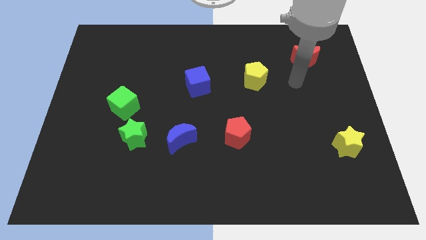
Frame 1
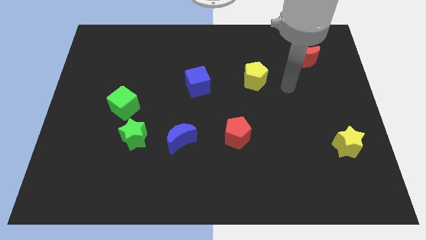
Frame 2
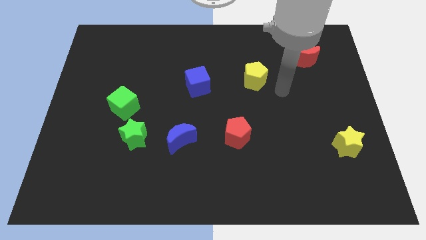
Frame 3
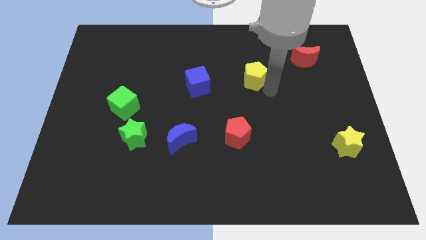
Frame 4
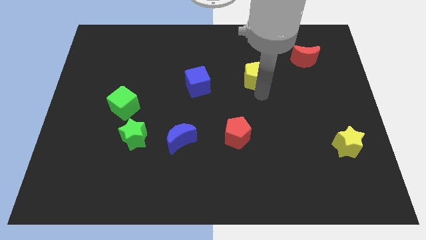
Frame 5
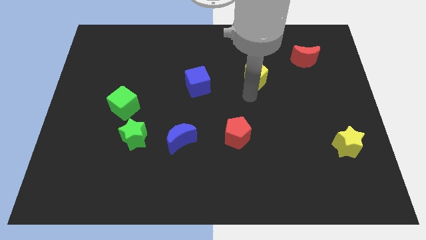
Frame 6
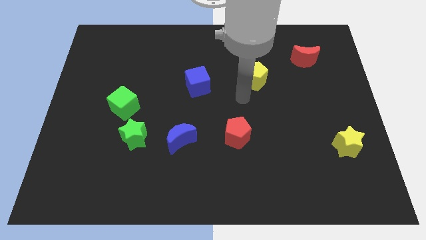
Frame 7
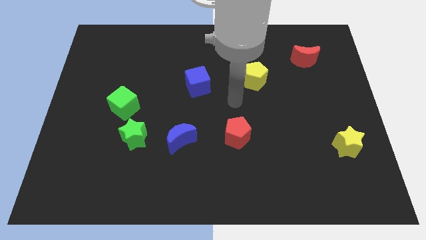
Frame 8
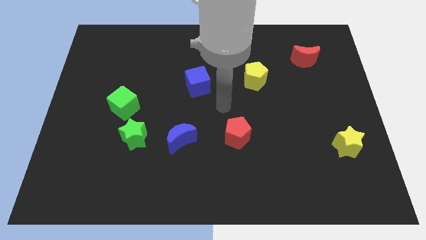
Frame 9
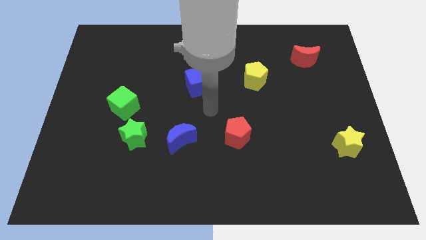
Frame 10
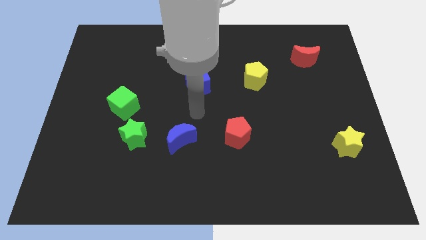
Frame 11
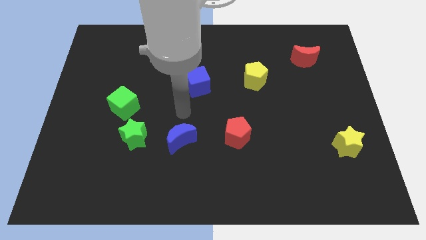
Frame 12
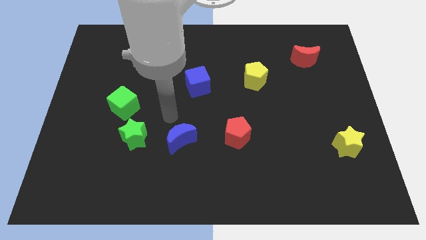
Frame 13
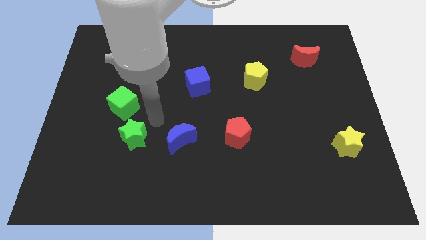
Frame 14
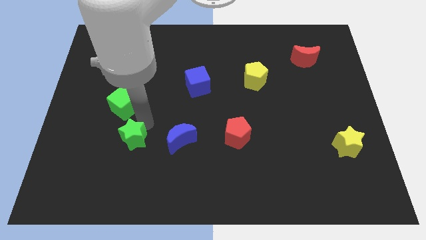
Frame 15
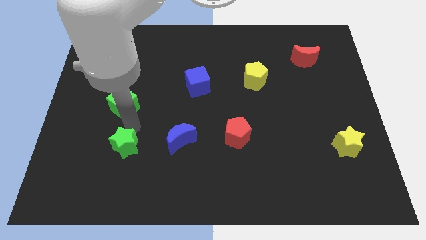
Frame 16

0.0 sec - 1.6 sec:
pull the green cube apart from the green star

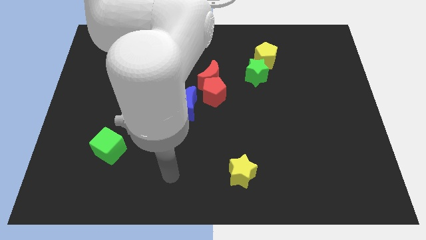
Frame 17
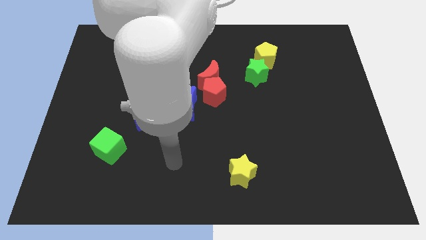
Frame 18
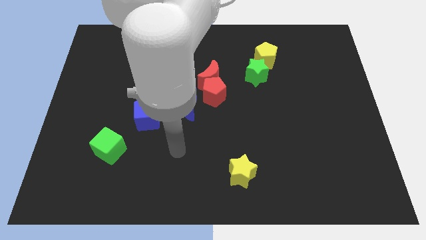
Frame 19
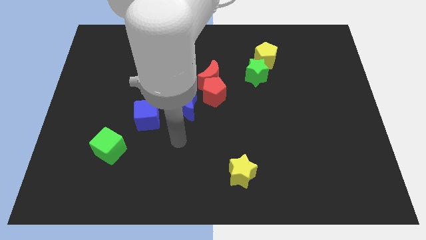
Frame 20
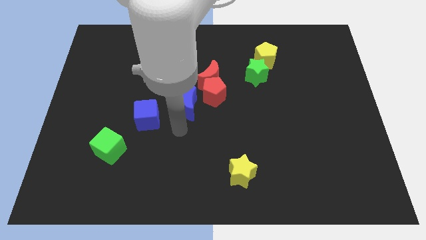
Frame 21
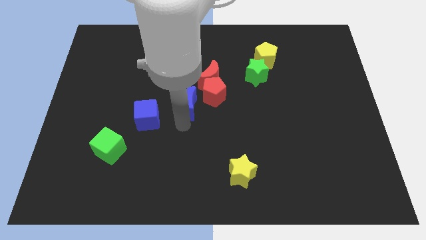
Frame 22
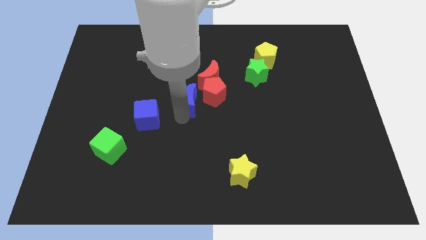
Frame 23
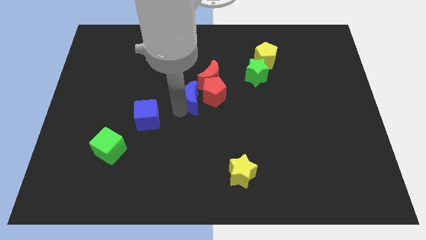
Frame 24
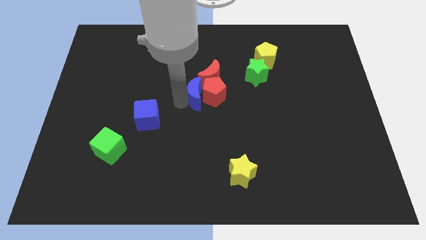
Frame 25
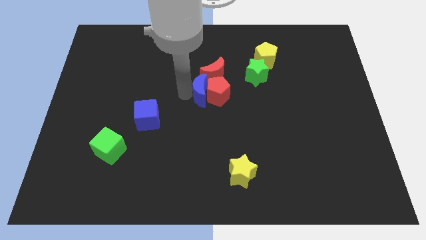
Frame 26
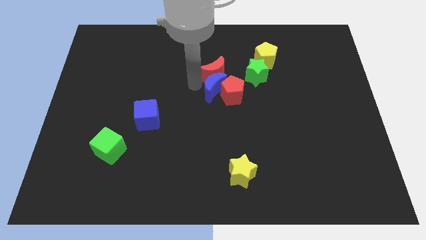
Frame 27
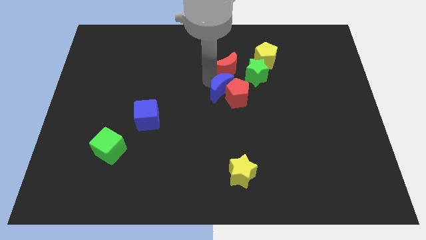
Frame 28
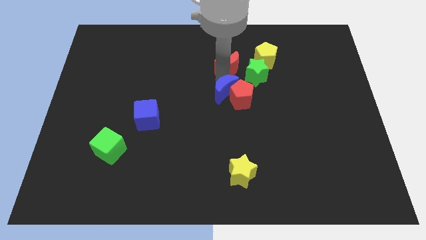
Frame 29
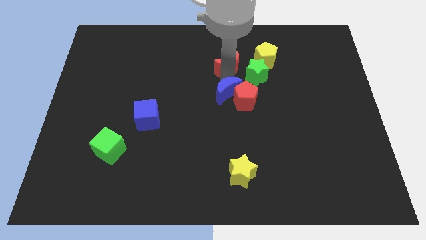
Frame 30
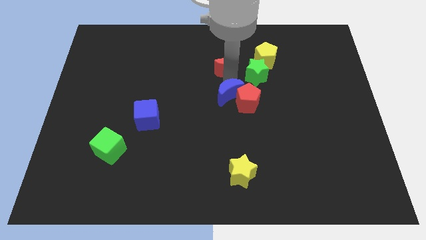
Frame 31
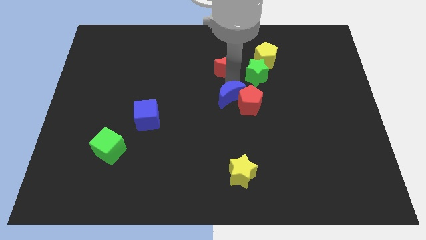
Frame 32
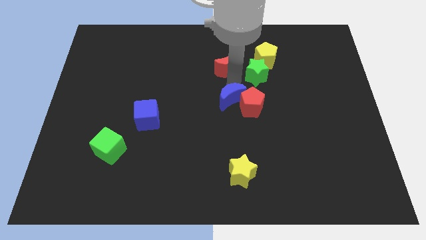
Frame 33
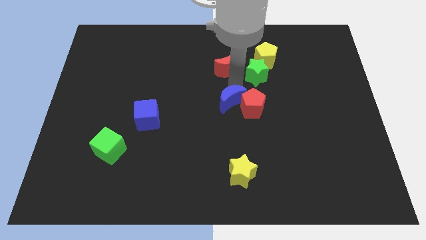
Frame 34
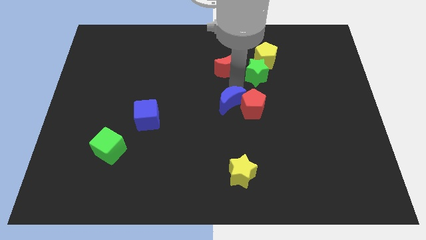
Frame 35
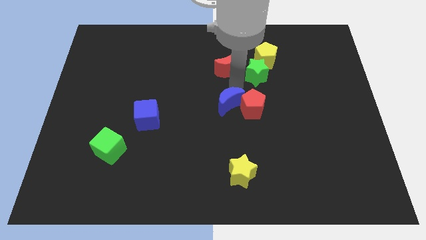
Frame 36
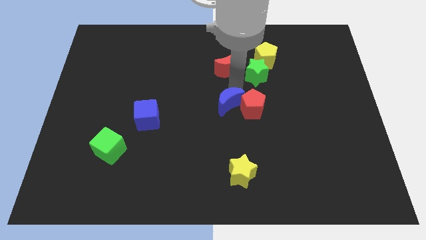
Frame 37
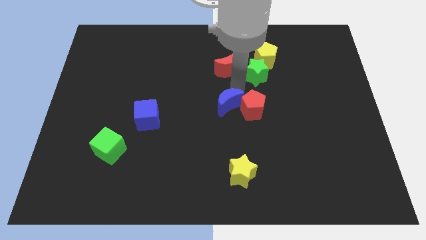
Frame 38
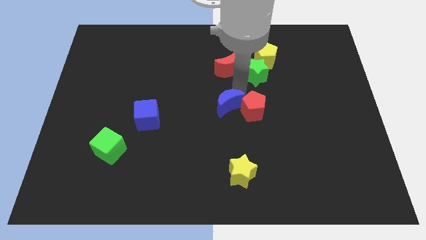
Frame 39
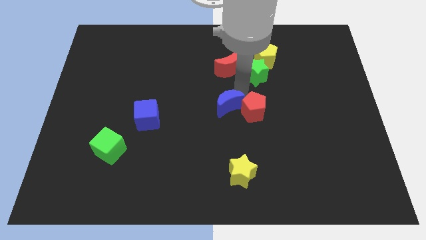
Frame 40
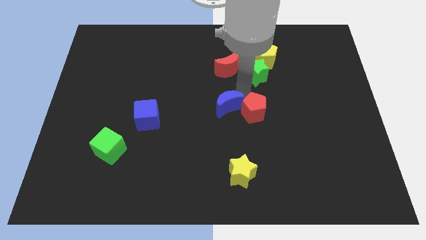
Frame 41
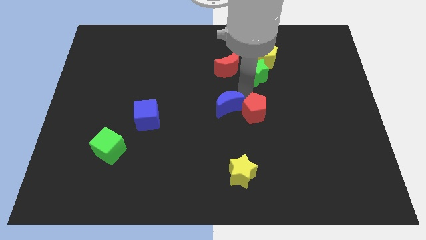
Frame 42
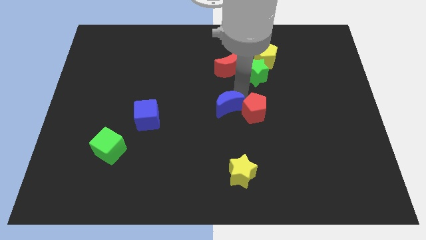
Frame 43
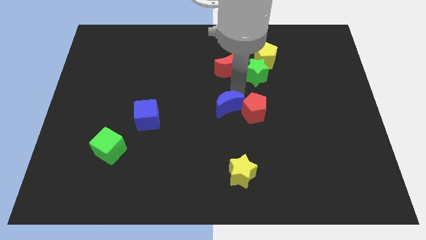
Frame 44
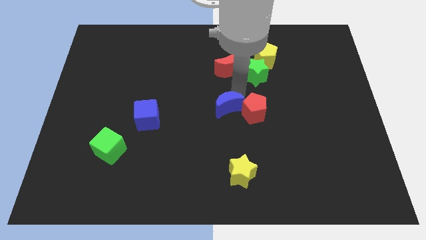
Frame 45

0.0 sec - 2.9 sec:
separate the red pentagon from the red moon and blue moon

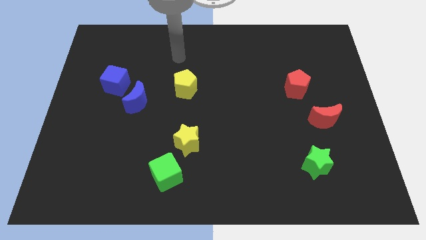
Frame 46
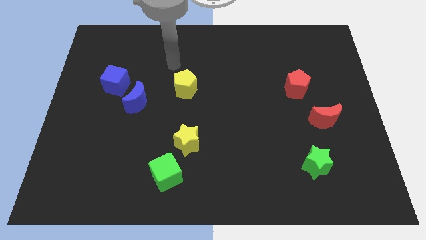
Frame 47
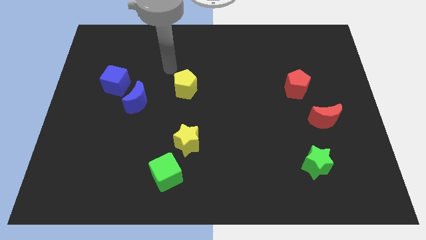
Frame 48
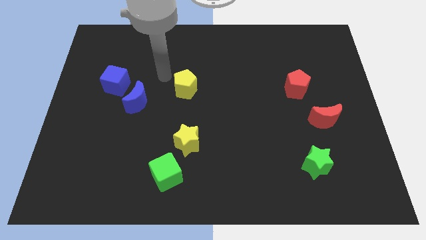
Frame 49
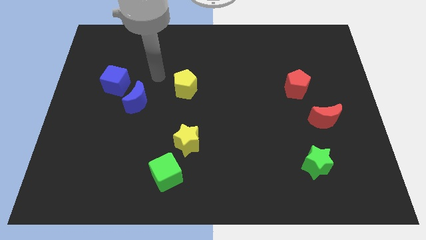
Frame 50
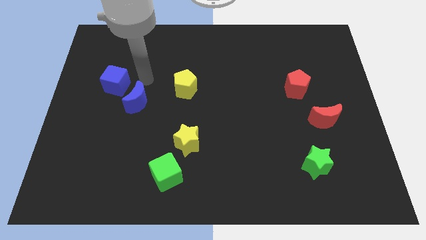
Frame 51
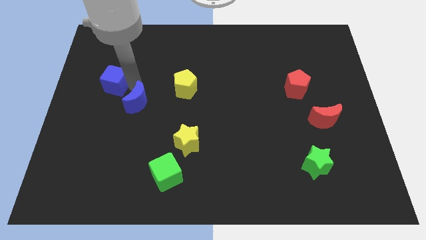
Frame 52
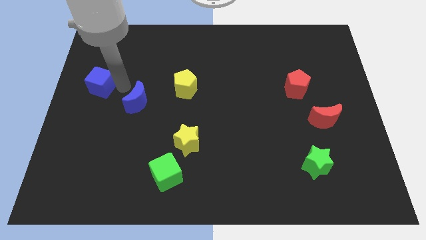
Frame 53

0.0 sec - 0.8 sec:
separate the blue moon from the blue cube

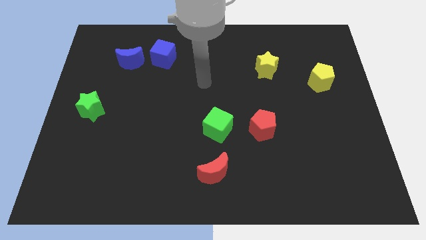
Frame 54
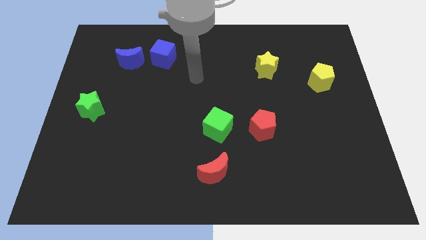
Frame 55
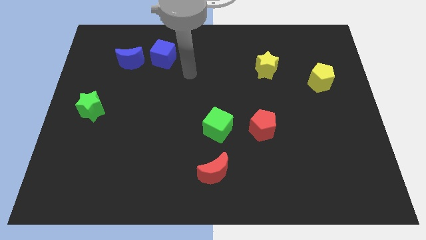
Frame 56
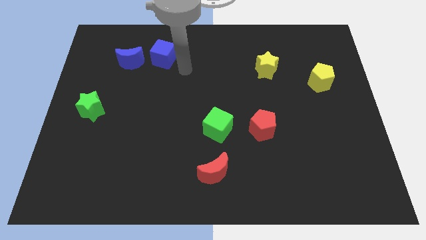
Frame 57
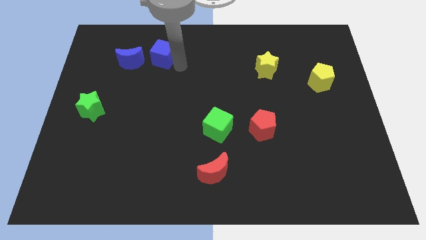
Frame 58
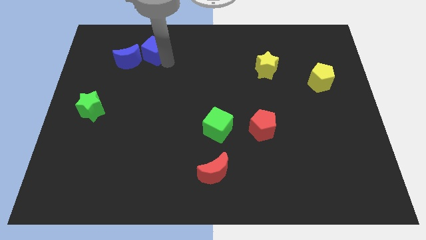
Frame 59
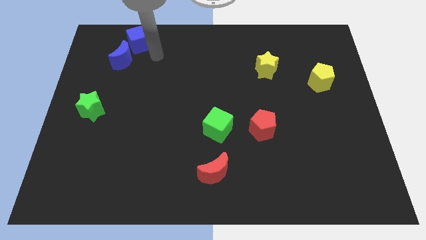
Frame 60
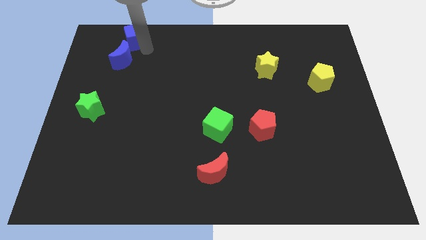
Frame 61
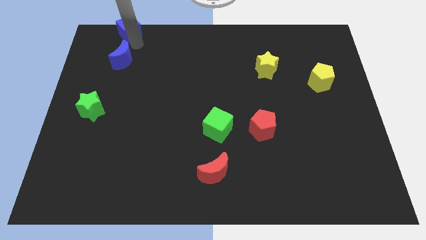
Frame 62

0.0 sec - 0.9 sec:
move the blue moon away from the blue cube
